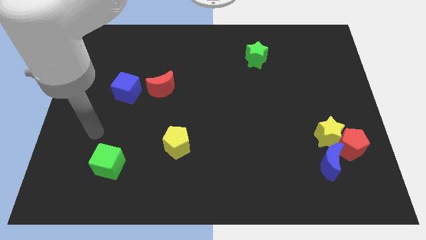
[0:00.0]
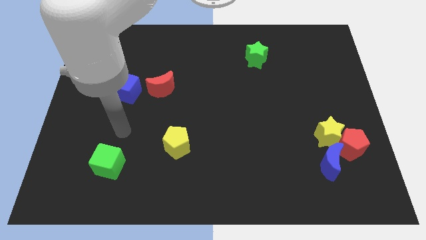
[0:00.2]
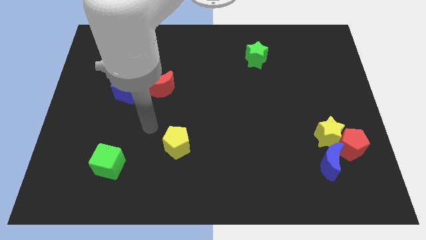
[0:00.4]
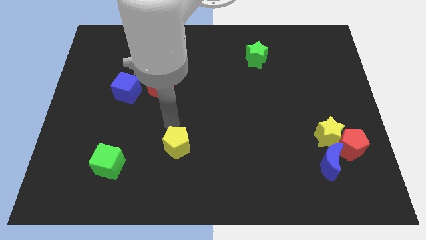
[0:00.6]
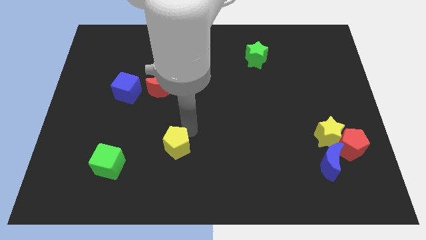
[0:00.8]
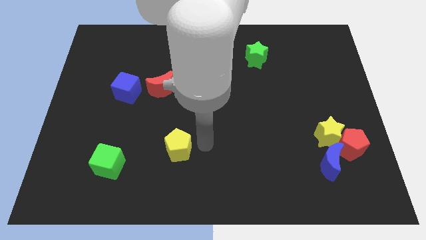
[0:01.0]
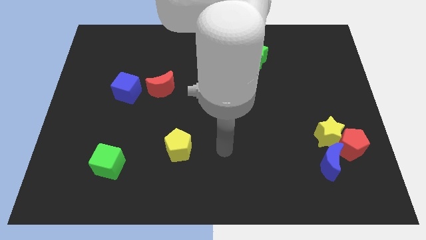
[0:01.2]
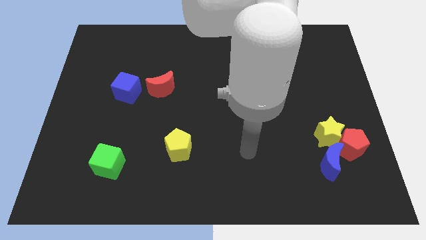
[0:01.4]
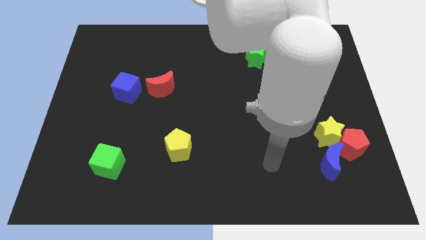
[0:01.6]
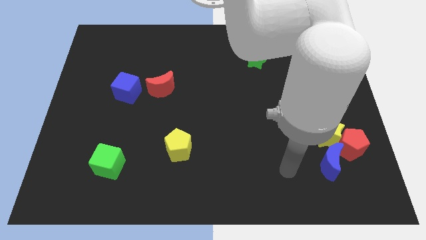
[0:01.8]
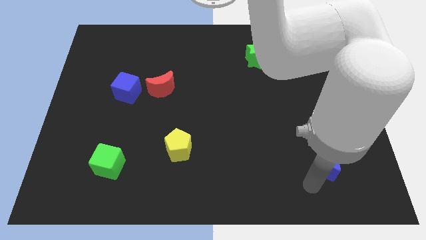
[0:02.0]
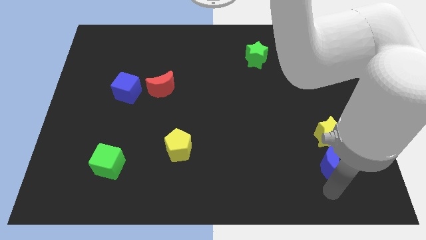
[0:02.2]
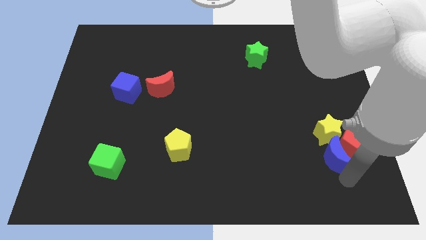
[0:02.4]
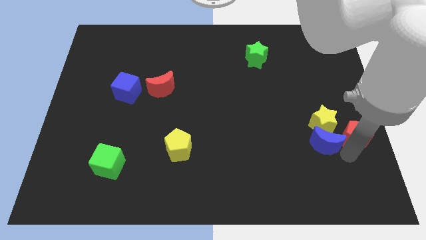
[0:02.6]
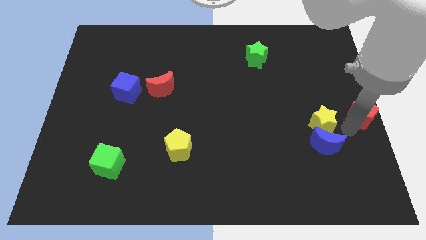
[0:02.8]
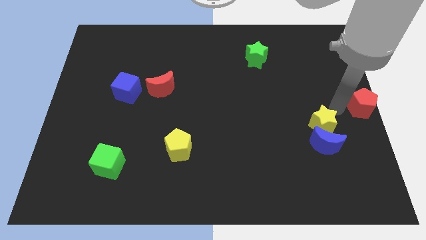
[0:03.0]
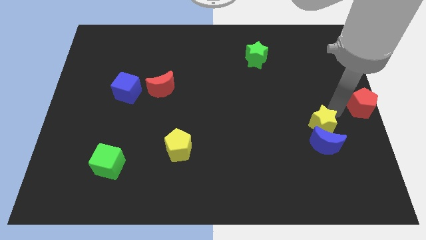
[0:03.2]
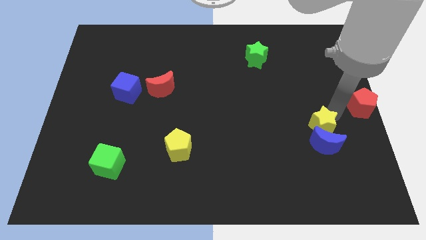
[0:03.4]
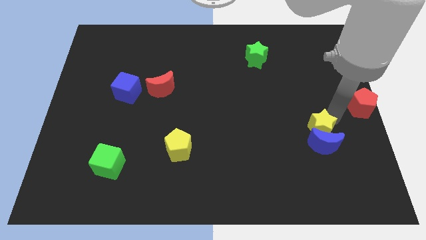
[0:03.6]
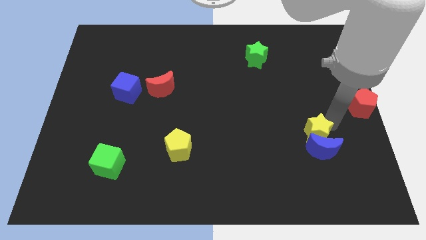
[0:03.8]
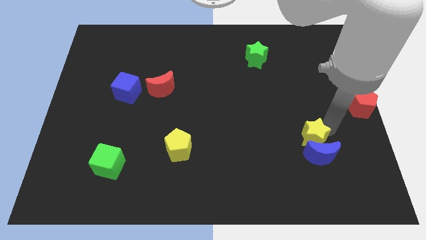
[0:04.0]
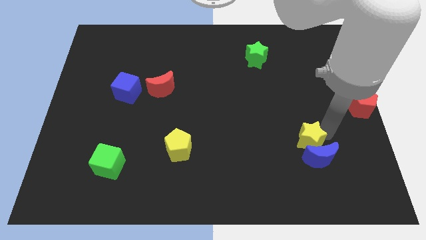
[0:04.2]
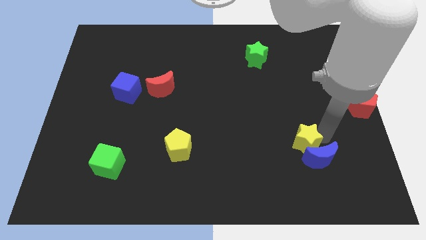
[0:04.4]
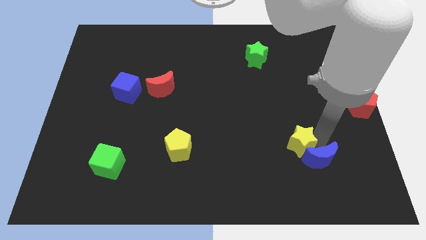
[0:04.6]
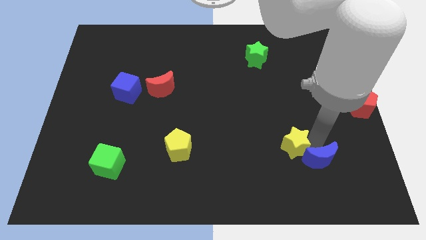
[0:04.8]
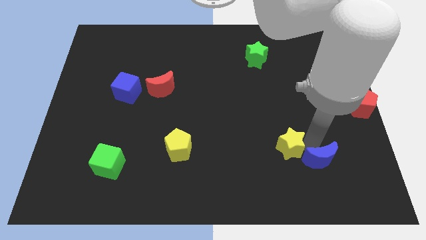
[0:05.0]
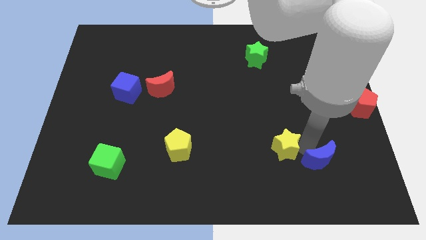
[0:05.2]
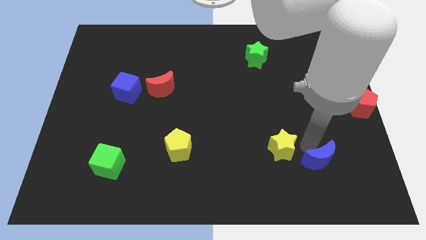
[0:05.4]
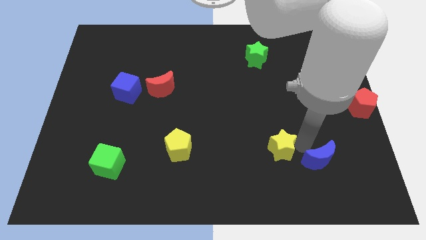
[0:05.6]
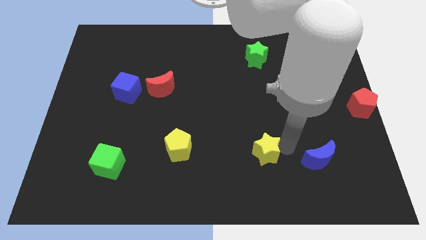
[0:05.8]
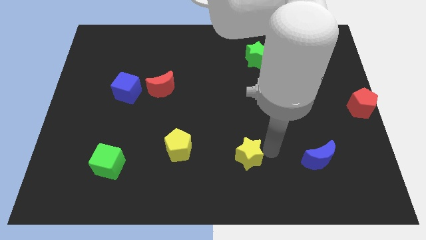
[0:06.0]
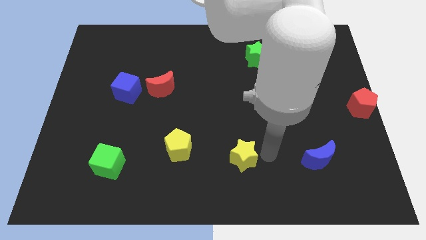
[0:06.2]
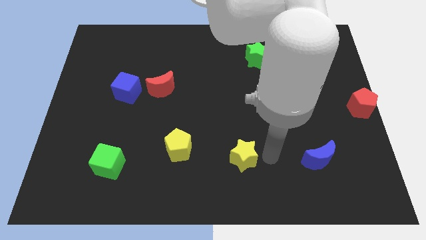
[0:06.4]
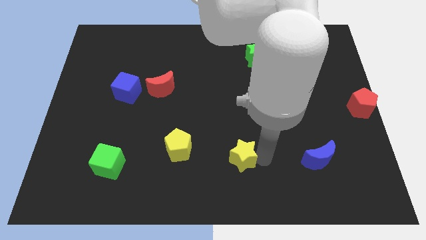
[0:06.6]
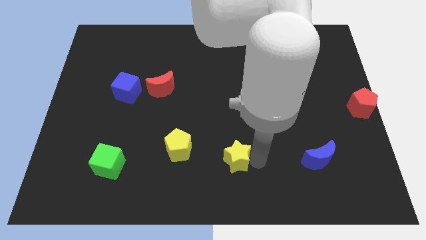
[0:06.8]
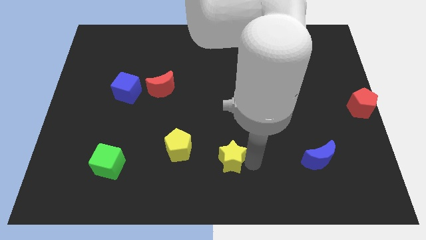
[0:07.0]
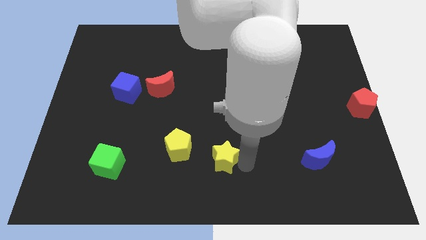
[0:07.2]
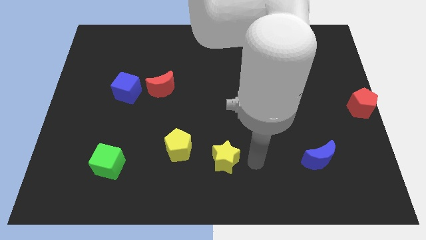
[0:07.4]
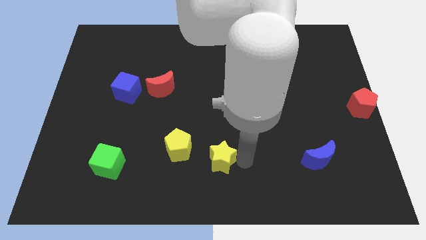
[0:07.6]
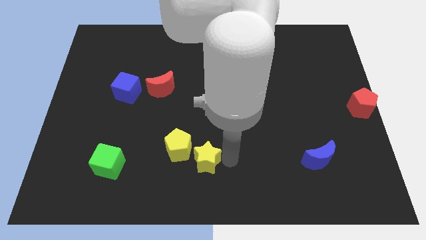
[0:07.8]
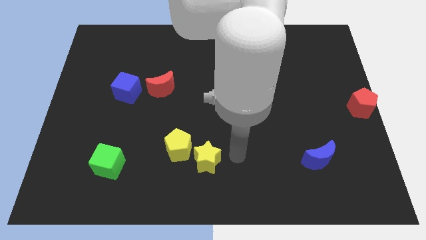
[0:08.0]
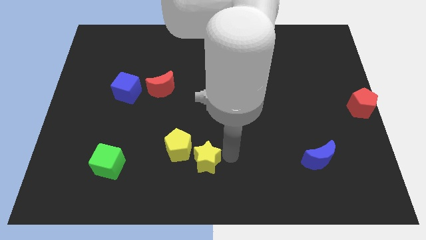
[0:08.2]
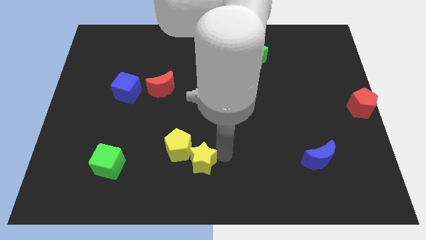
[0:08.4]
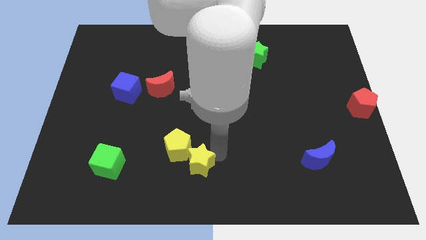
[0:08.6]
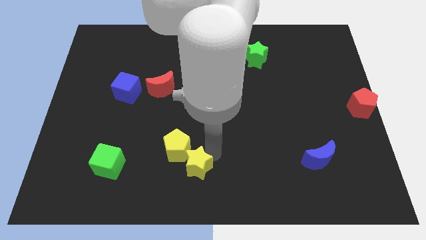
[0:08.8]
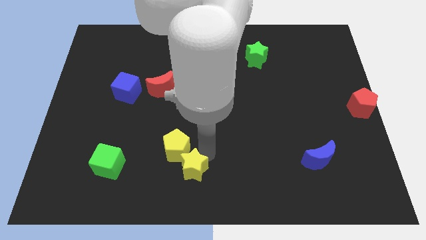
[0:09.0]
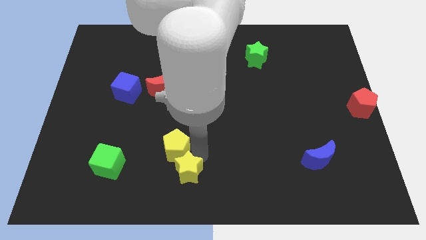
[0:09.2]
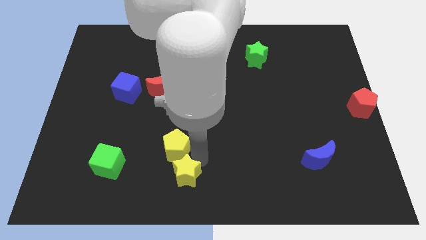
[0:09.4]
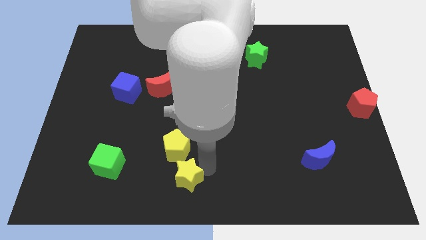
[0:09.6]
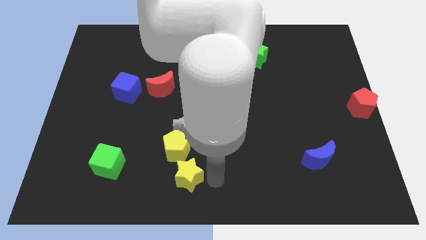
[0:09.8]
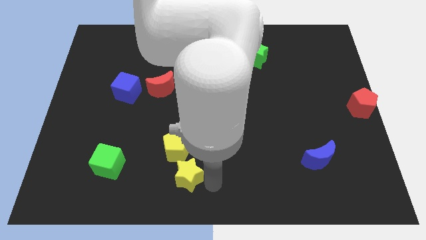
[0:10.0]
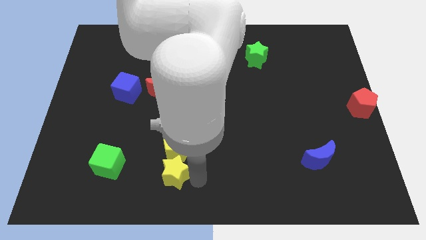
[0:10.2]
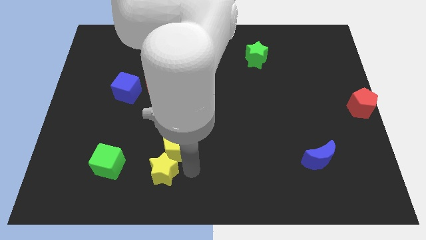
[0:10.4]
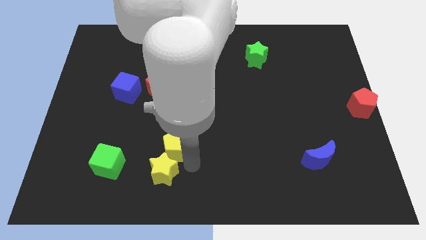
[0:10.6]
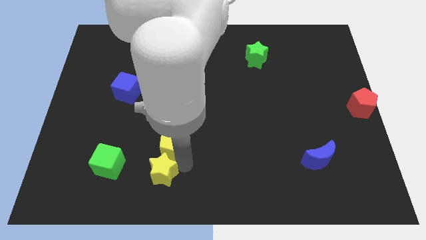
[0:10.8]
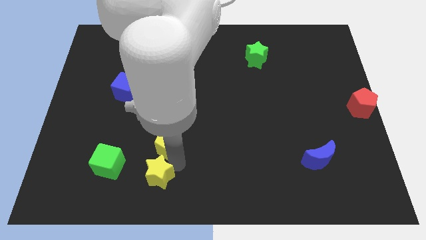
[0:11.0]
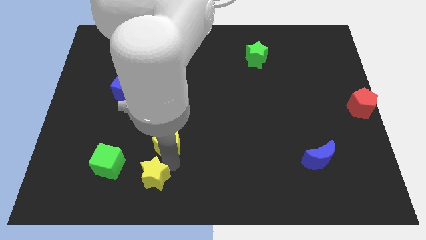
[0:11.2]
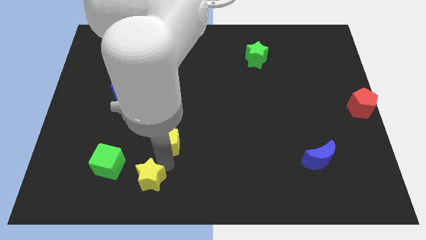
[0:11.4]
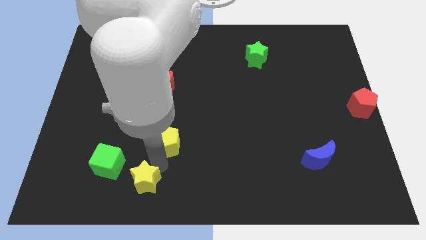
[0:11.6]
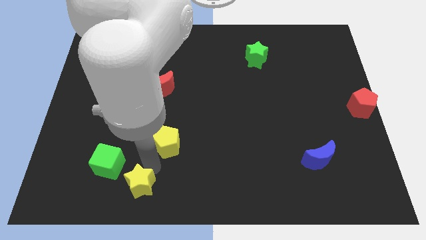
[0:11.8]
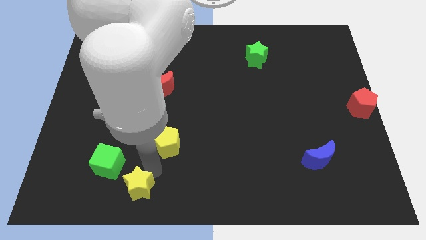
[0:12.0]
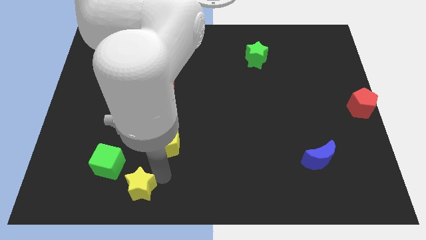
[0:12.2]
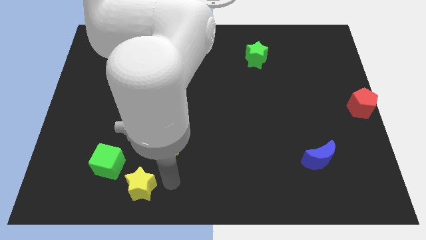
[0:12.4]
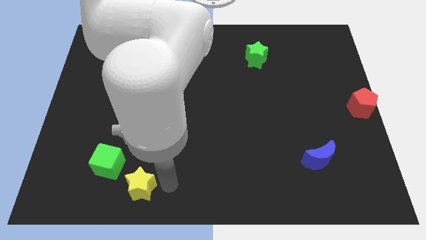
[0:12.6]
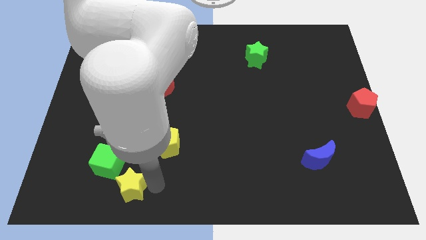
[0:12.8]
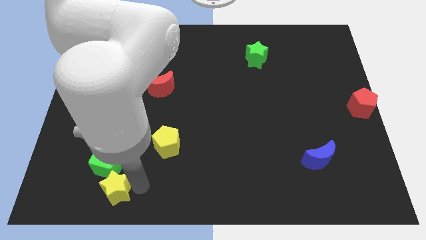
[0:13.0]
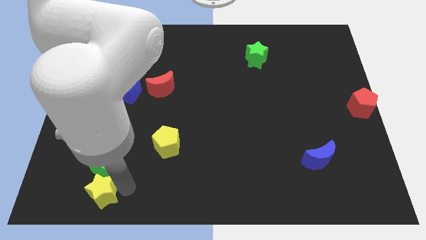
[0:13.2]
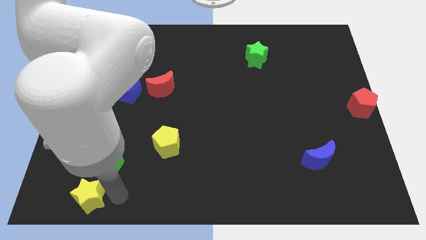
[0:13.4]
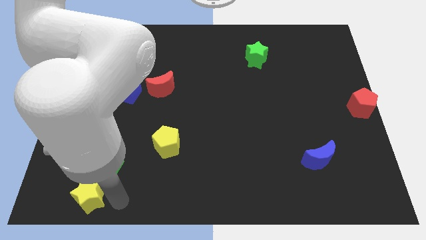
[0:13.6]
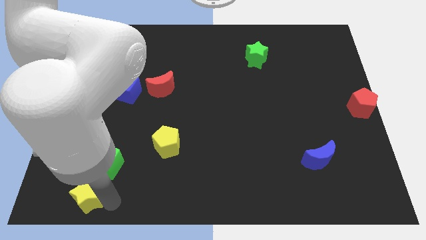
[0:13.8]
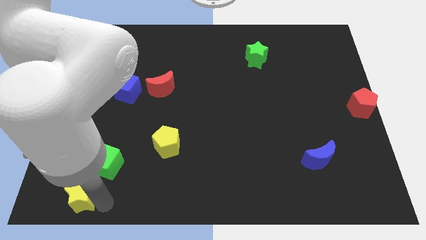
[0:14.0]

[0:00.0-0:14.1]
move the yellow star to the lower left corner

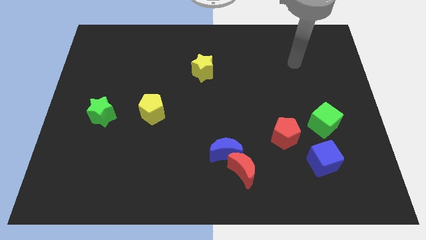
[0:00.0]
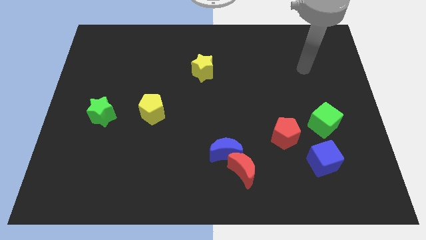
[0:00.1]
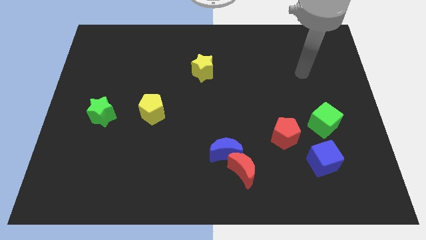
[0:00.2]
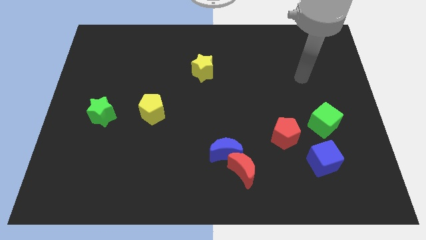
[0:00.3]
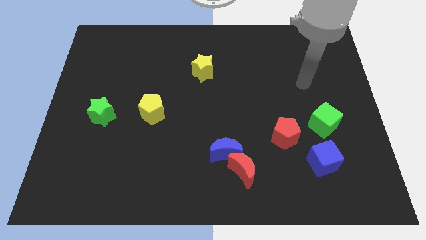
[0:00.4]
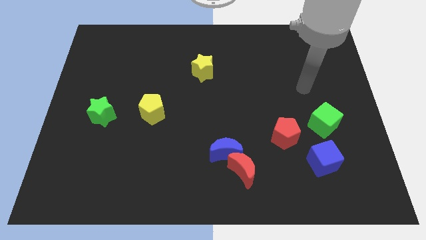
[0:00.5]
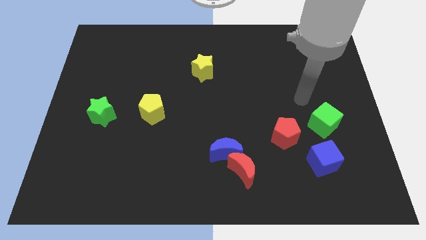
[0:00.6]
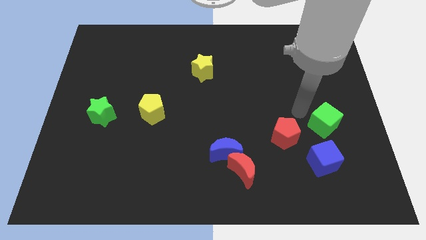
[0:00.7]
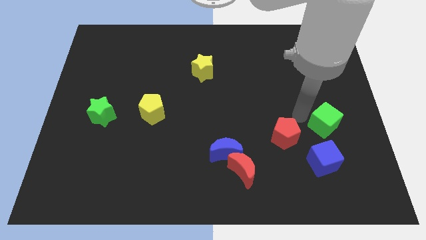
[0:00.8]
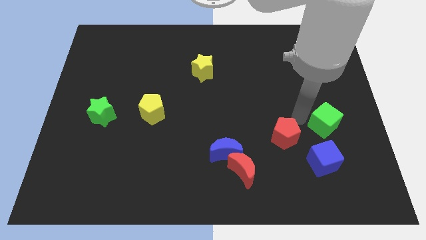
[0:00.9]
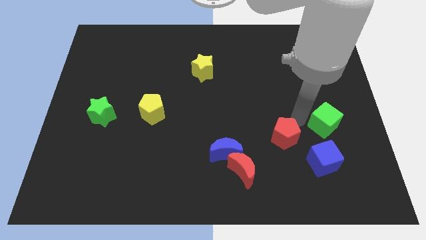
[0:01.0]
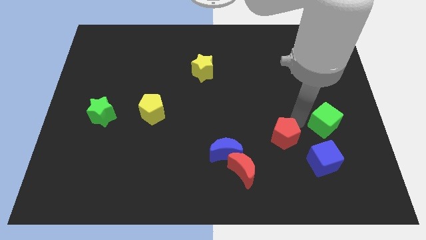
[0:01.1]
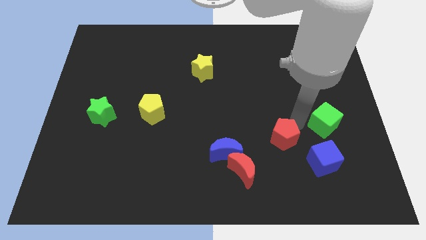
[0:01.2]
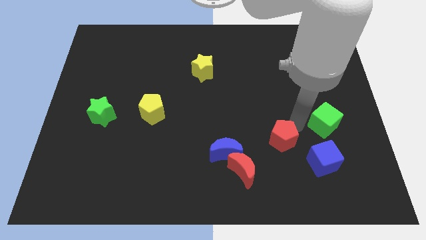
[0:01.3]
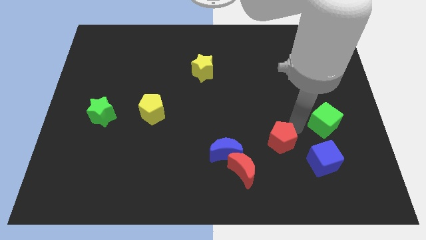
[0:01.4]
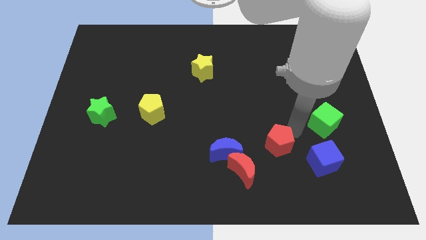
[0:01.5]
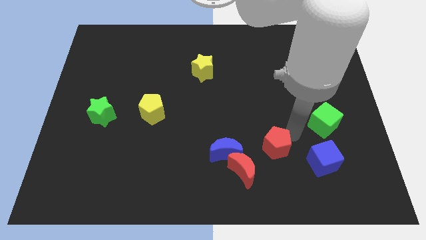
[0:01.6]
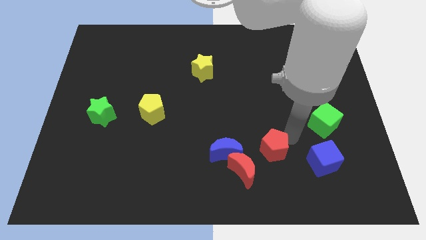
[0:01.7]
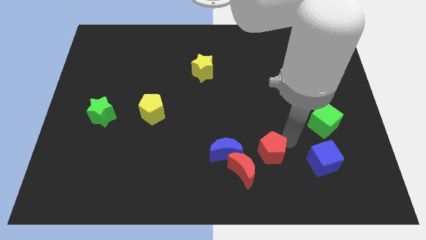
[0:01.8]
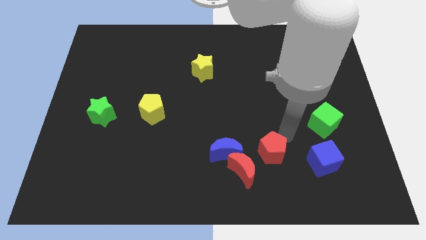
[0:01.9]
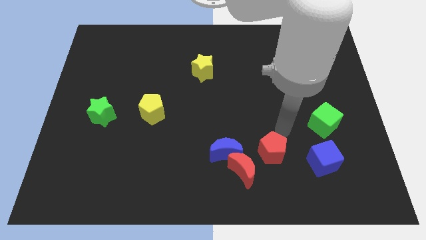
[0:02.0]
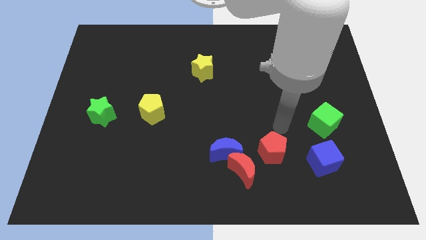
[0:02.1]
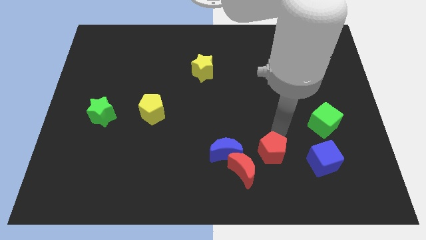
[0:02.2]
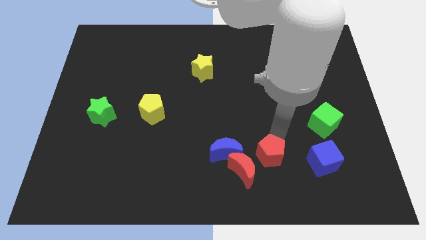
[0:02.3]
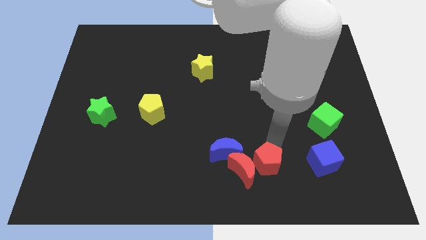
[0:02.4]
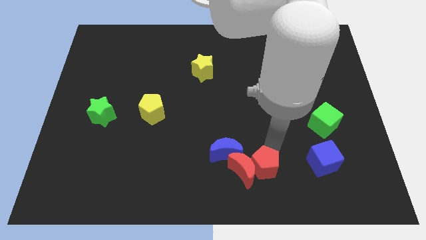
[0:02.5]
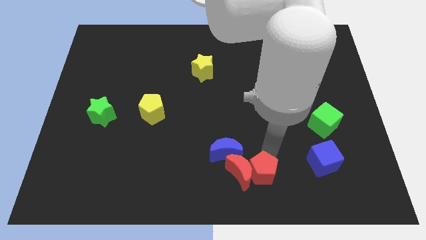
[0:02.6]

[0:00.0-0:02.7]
move the red pentagon to the bottom
